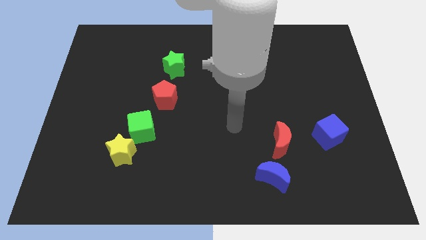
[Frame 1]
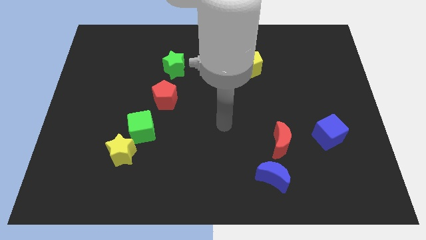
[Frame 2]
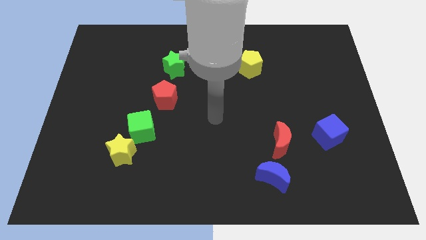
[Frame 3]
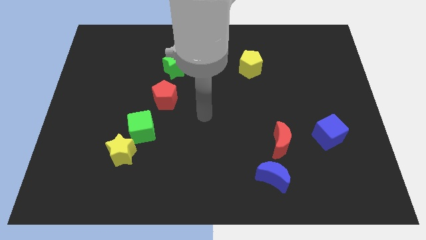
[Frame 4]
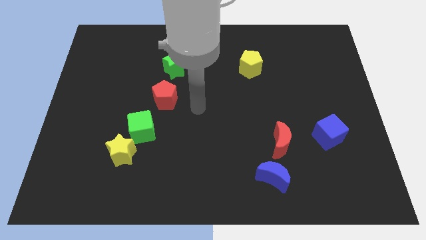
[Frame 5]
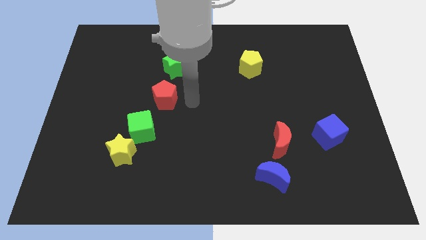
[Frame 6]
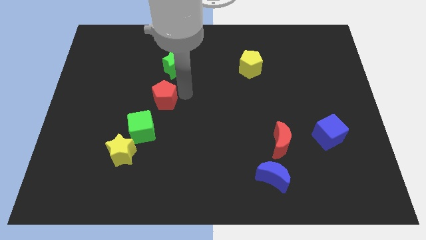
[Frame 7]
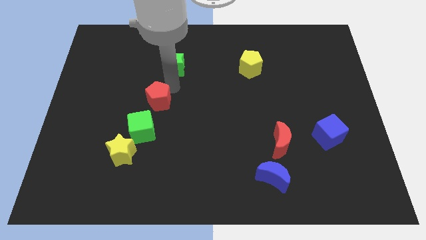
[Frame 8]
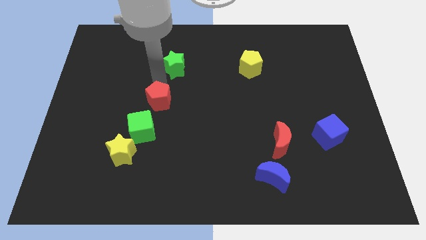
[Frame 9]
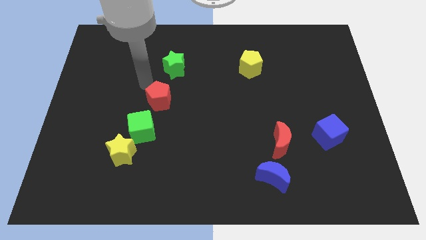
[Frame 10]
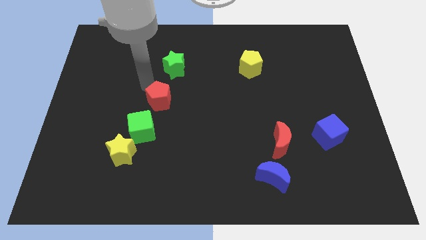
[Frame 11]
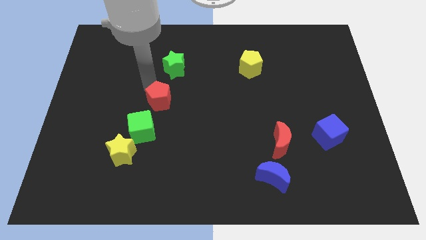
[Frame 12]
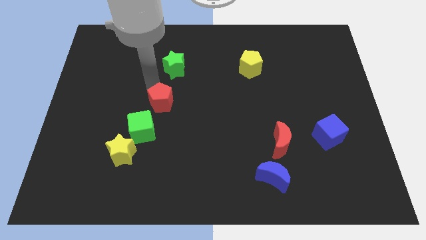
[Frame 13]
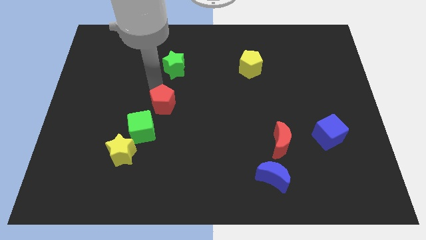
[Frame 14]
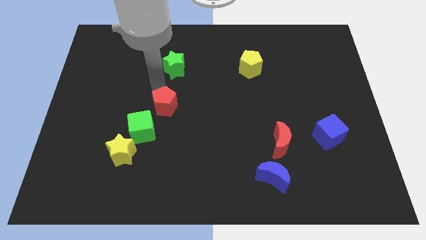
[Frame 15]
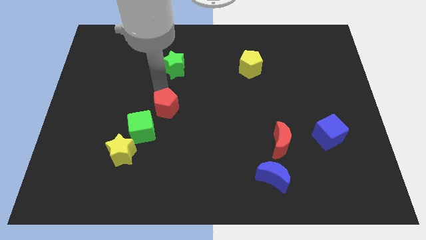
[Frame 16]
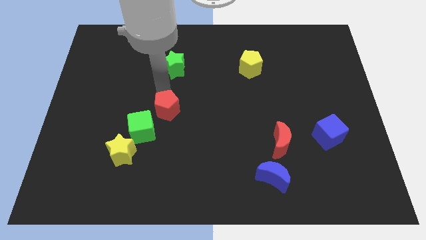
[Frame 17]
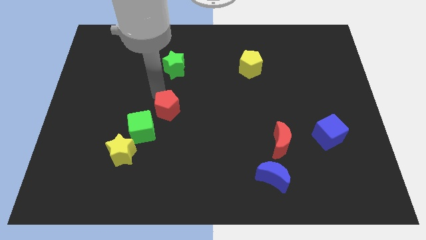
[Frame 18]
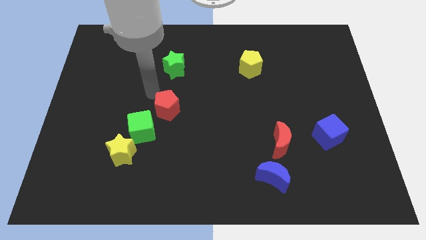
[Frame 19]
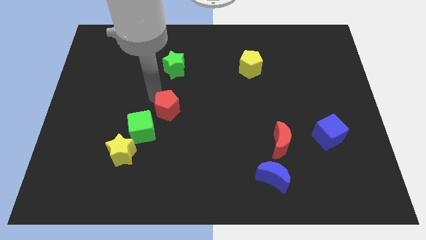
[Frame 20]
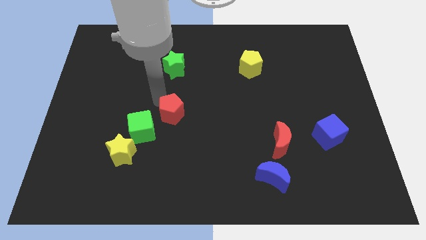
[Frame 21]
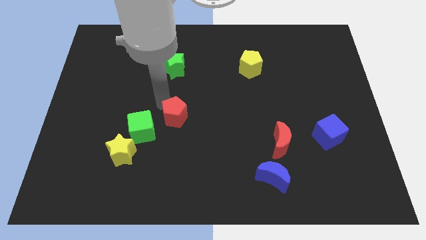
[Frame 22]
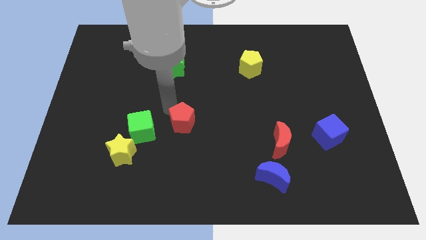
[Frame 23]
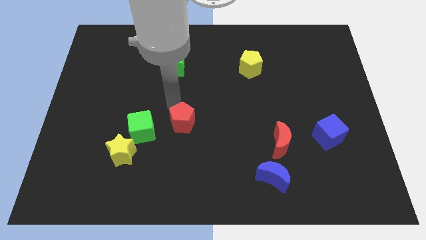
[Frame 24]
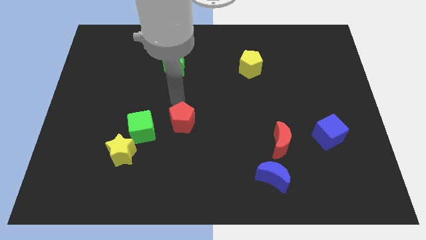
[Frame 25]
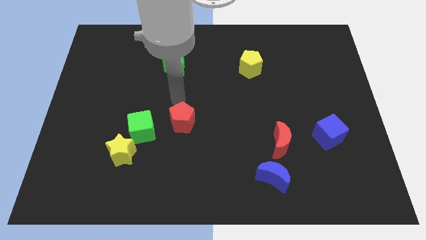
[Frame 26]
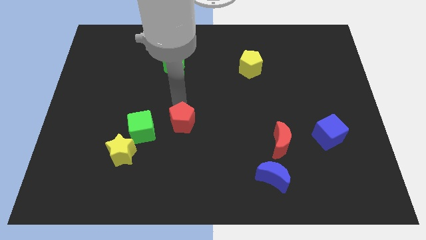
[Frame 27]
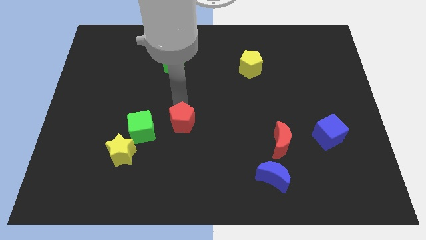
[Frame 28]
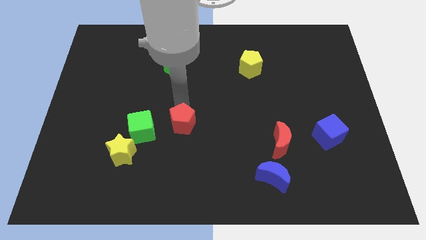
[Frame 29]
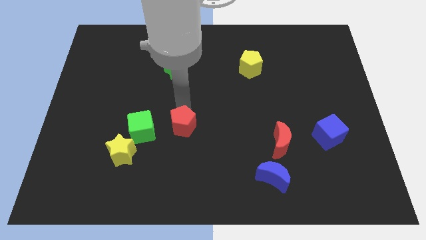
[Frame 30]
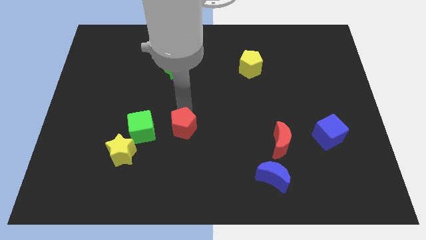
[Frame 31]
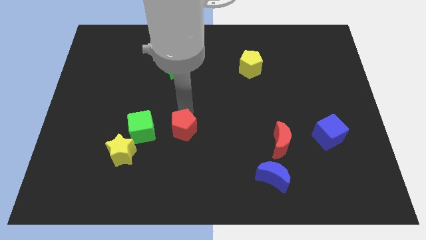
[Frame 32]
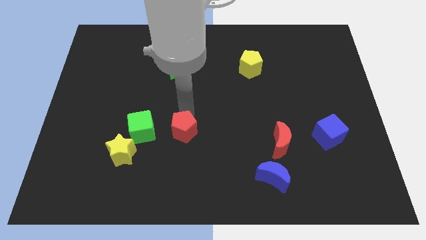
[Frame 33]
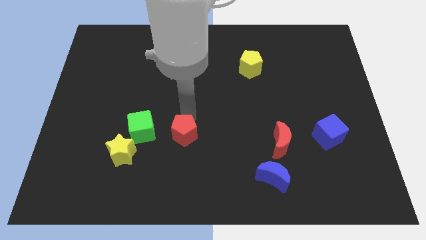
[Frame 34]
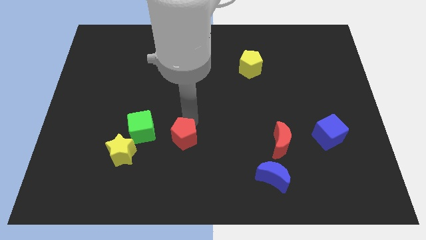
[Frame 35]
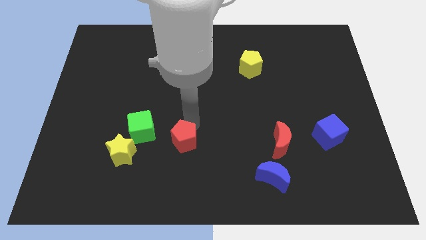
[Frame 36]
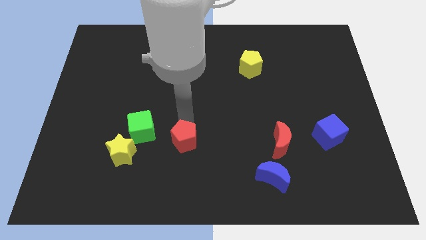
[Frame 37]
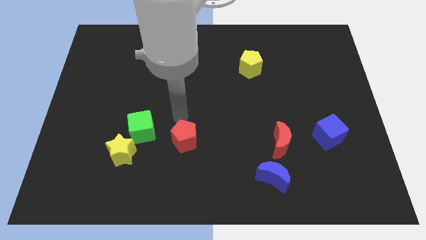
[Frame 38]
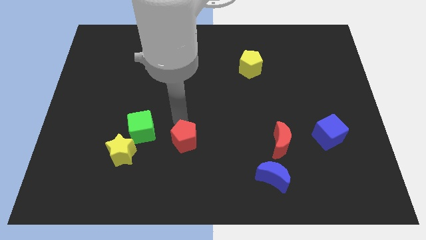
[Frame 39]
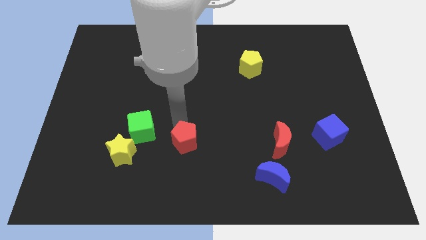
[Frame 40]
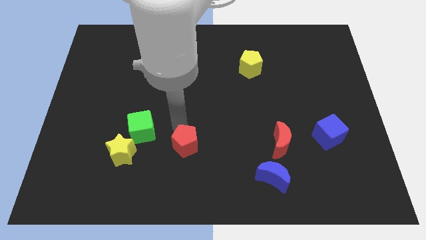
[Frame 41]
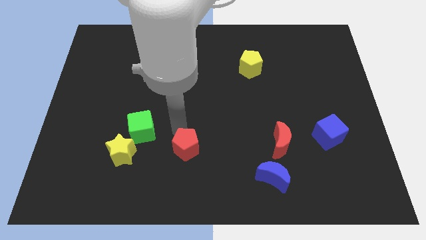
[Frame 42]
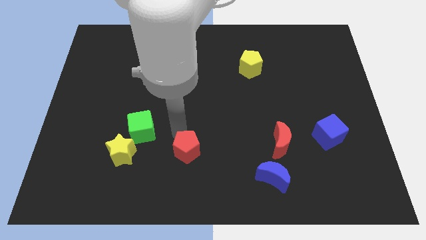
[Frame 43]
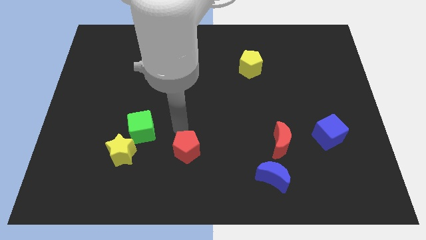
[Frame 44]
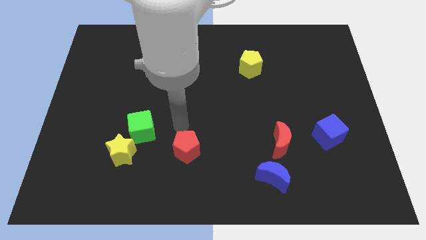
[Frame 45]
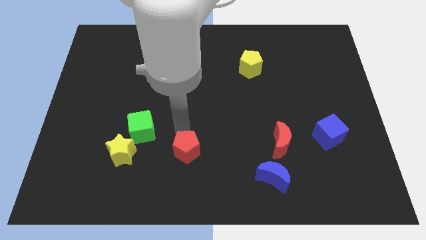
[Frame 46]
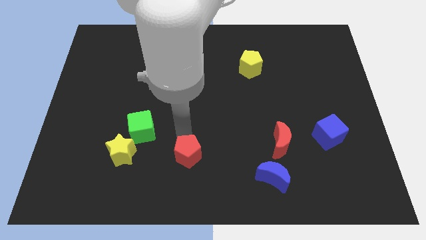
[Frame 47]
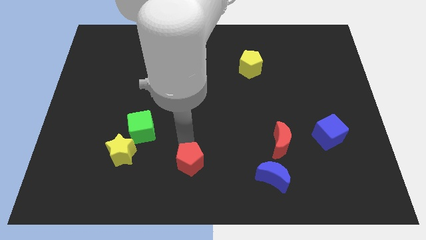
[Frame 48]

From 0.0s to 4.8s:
move the red pentagon to the bottom side

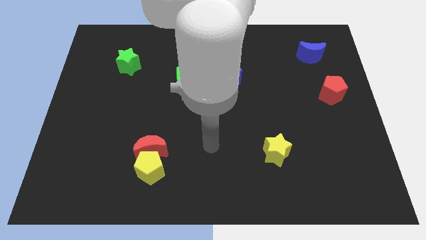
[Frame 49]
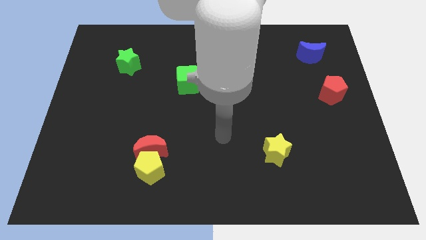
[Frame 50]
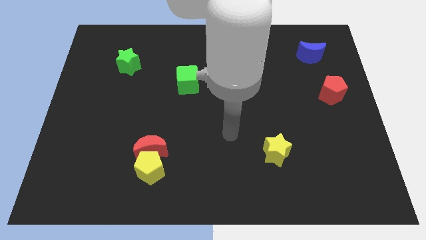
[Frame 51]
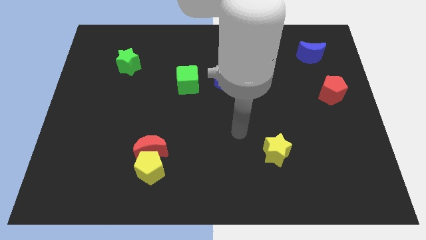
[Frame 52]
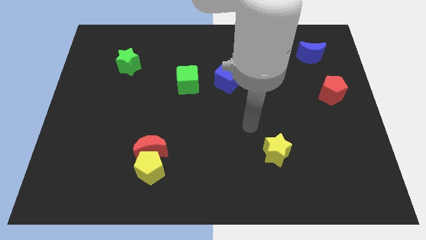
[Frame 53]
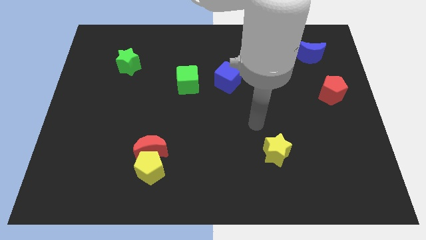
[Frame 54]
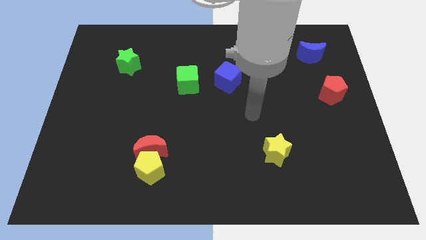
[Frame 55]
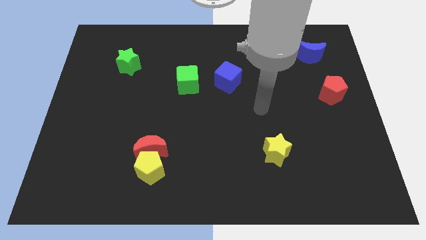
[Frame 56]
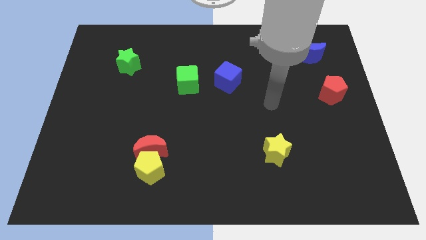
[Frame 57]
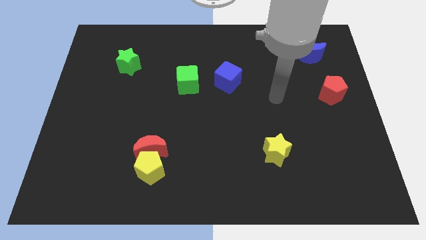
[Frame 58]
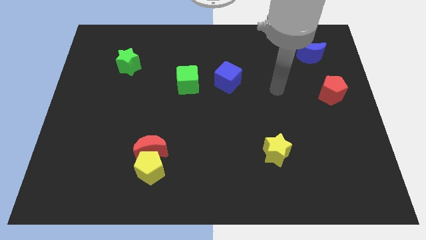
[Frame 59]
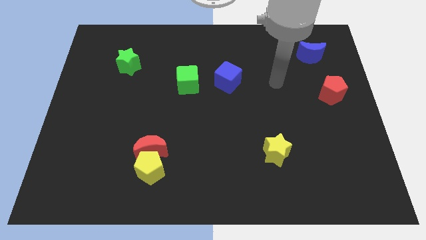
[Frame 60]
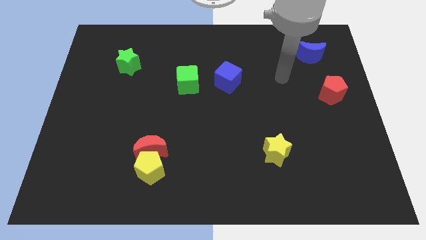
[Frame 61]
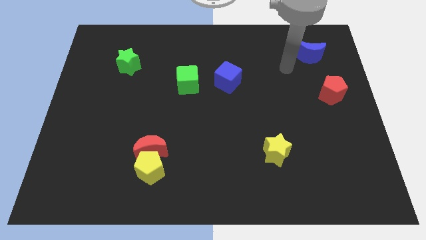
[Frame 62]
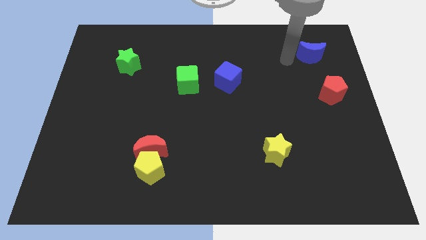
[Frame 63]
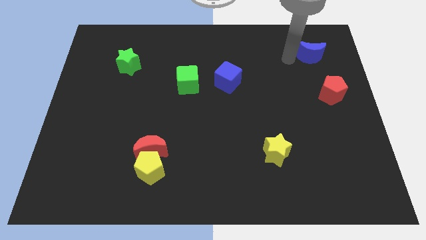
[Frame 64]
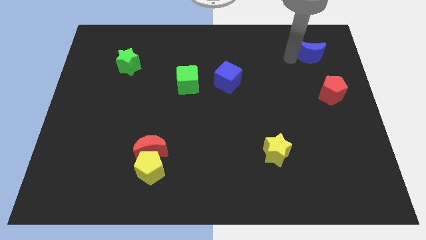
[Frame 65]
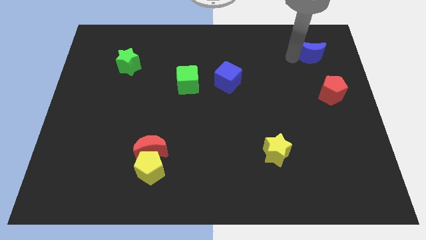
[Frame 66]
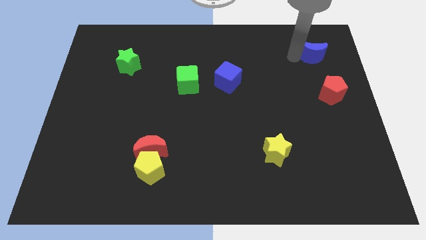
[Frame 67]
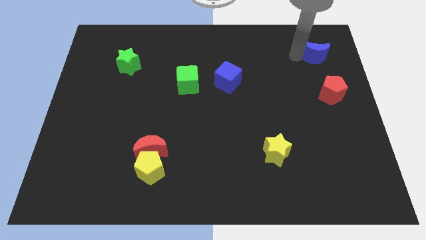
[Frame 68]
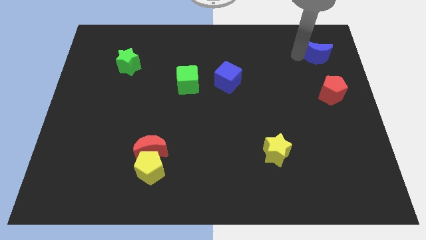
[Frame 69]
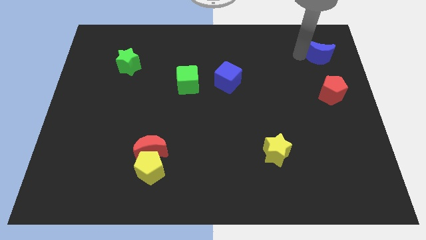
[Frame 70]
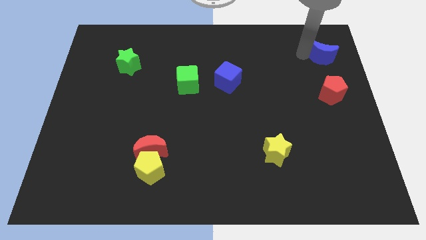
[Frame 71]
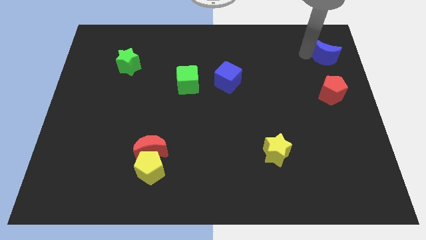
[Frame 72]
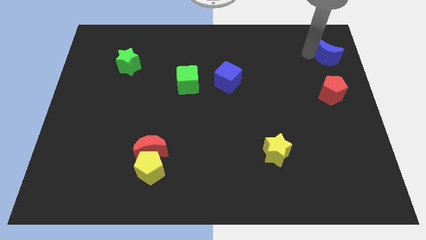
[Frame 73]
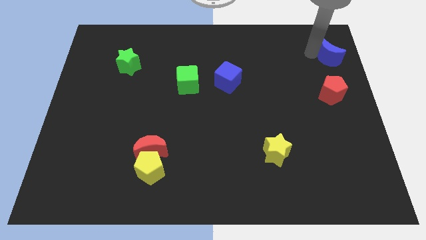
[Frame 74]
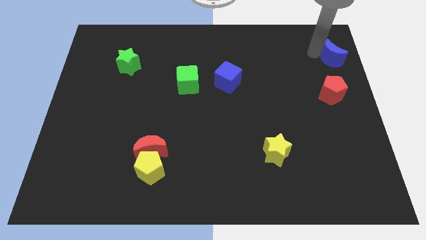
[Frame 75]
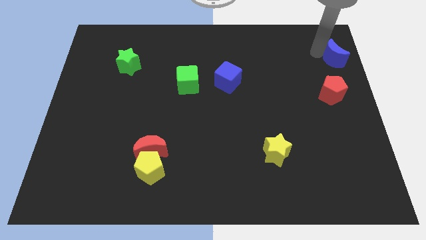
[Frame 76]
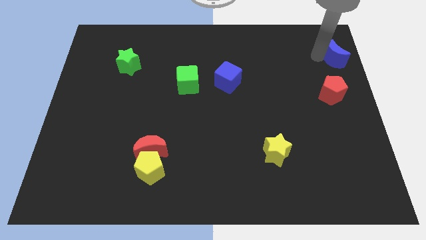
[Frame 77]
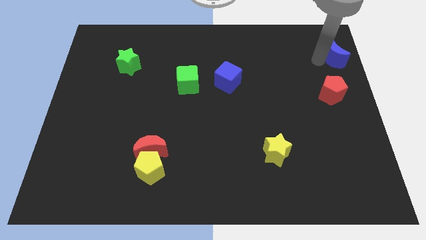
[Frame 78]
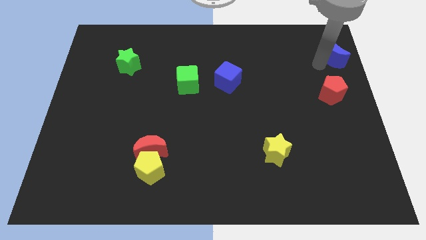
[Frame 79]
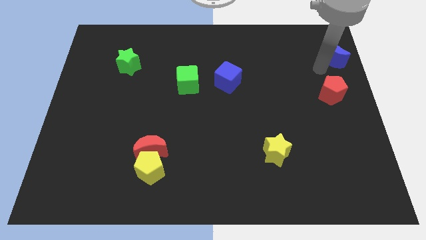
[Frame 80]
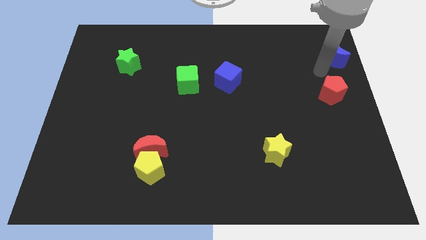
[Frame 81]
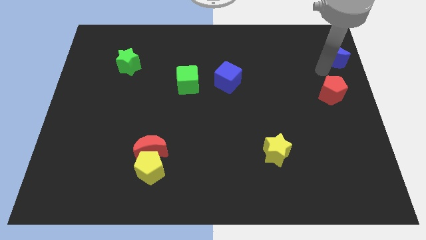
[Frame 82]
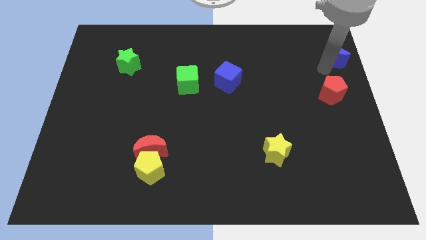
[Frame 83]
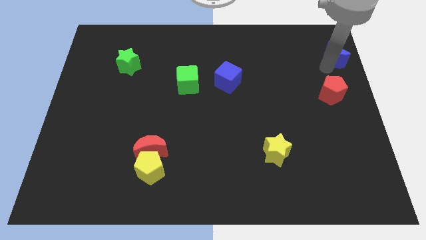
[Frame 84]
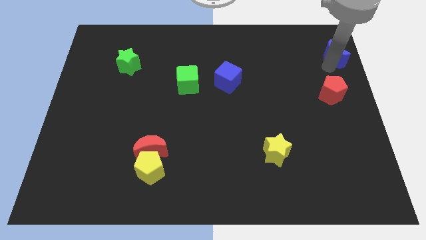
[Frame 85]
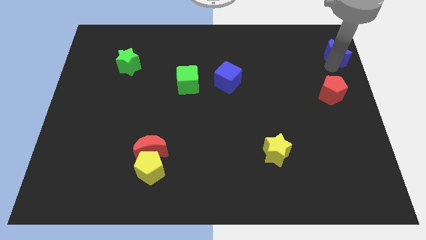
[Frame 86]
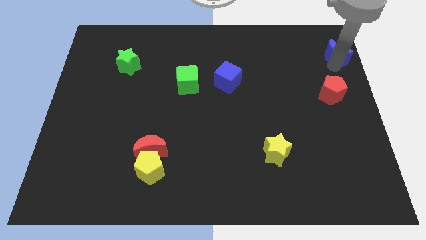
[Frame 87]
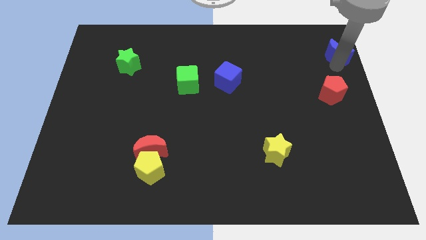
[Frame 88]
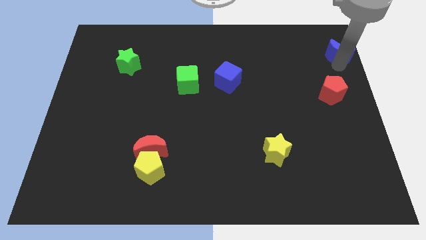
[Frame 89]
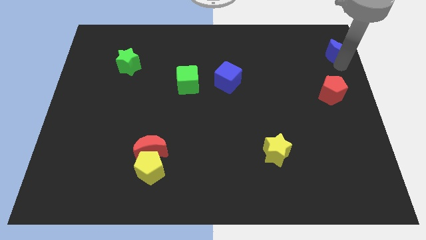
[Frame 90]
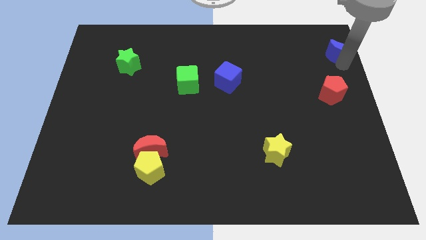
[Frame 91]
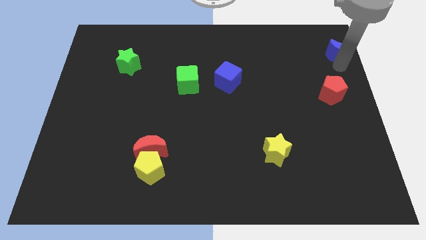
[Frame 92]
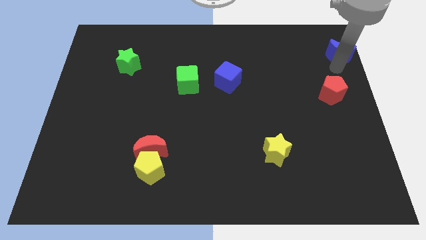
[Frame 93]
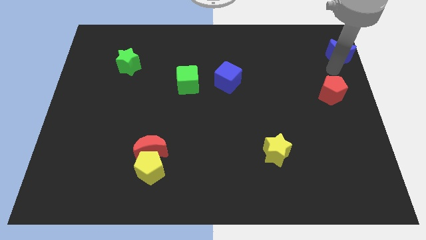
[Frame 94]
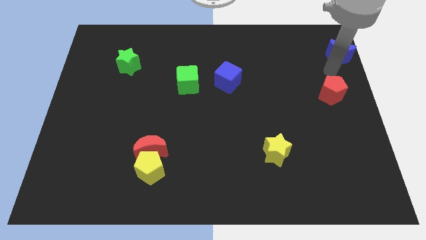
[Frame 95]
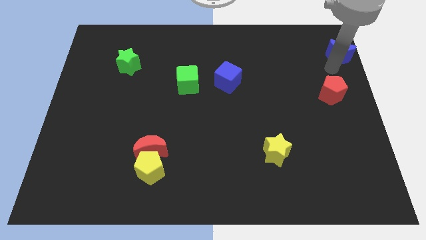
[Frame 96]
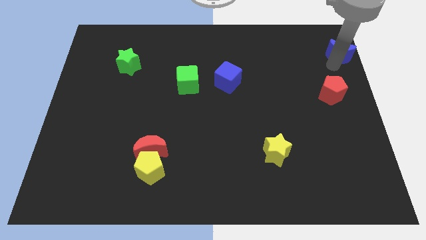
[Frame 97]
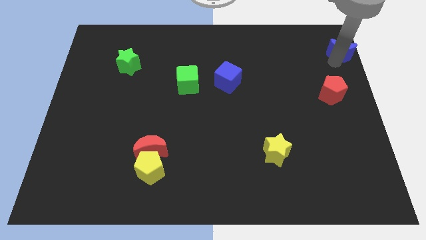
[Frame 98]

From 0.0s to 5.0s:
move the blue moon to the upper right corner
